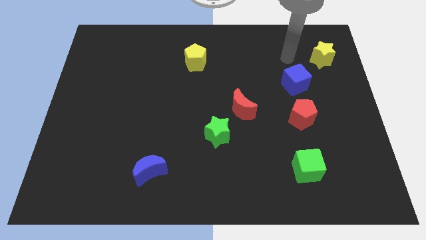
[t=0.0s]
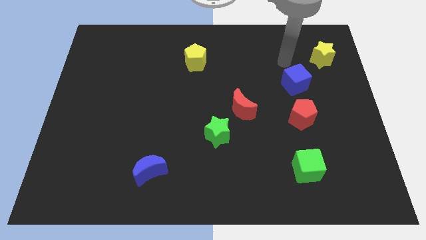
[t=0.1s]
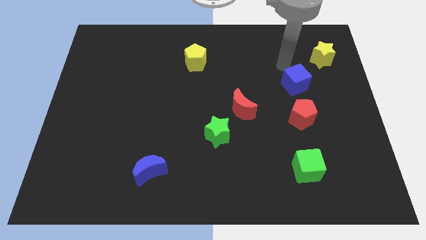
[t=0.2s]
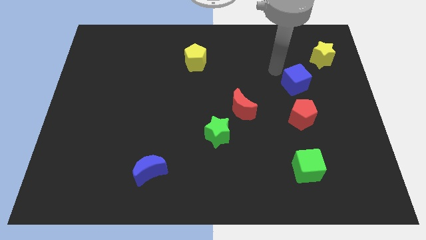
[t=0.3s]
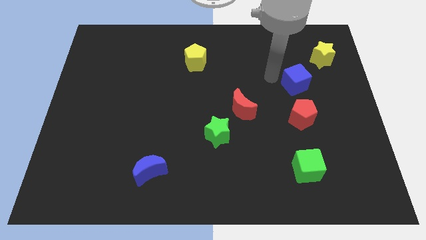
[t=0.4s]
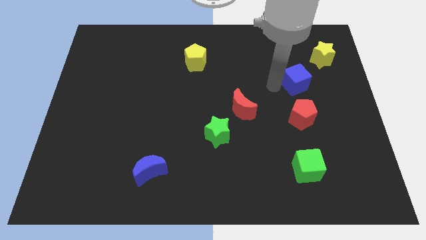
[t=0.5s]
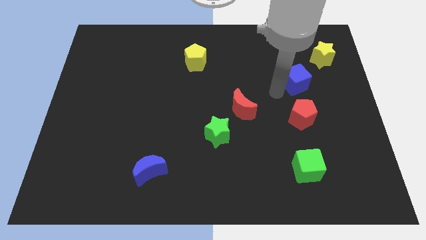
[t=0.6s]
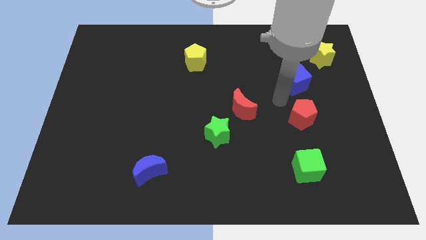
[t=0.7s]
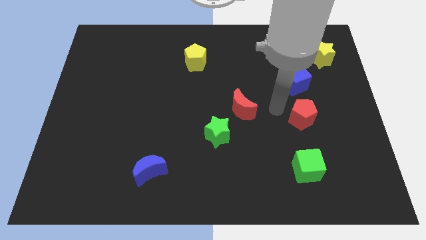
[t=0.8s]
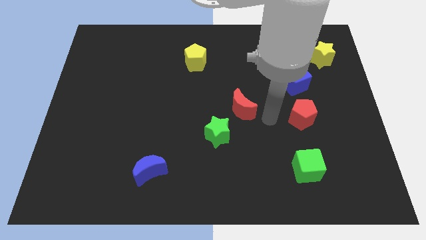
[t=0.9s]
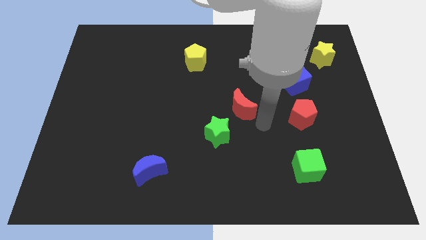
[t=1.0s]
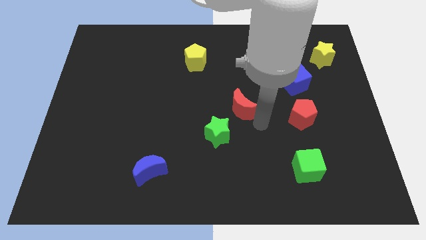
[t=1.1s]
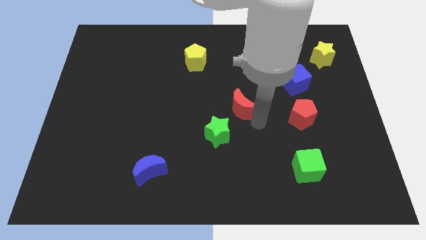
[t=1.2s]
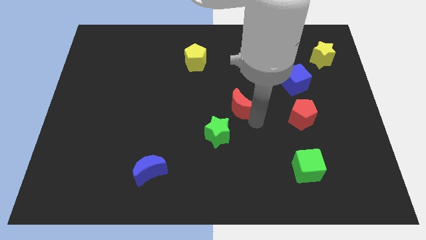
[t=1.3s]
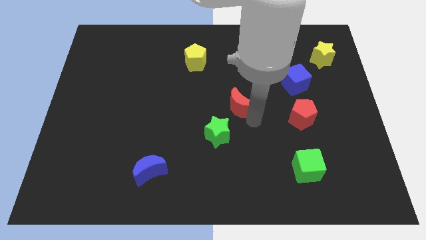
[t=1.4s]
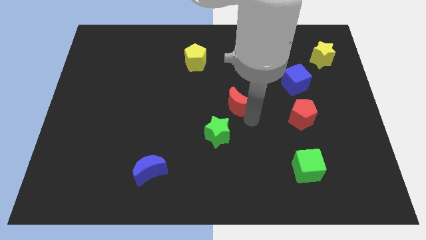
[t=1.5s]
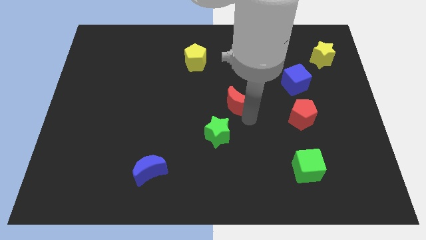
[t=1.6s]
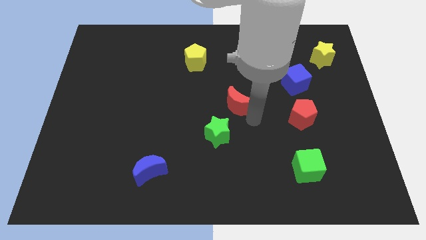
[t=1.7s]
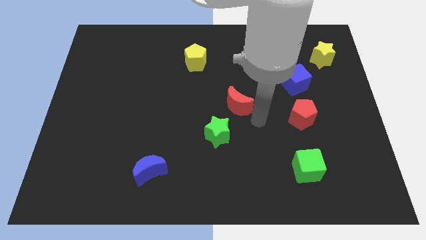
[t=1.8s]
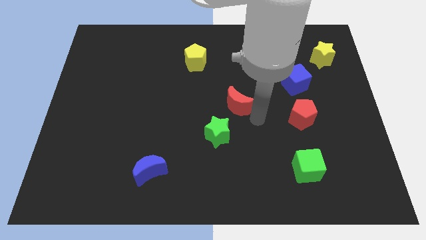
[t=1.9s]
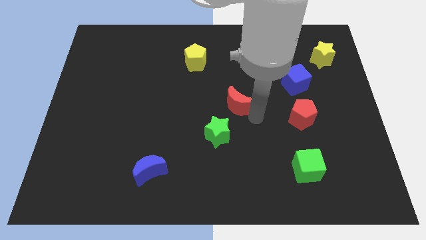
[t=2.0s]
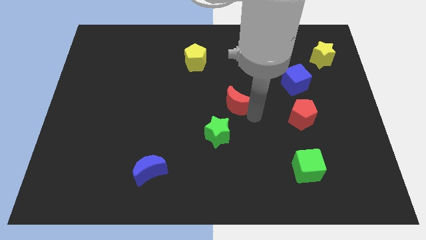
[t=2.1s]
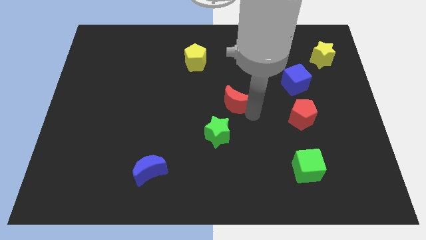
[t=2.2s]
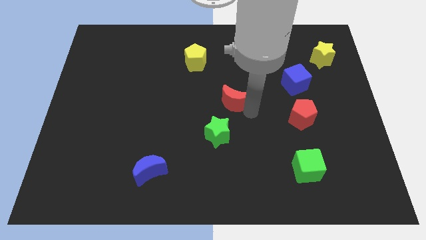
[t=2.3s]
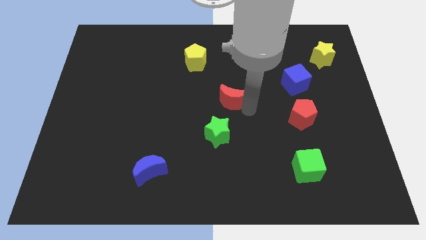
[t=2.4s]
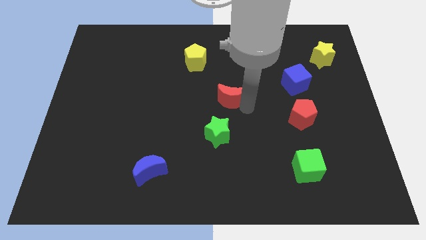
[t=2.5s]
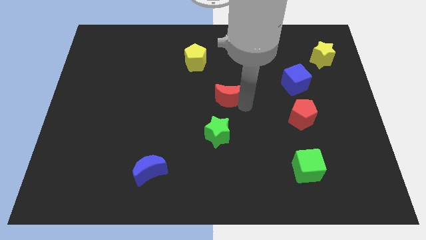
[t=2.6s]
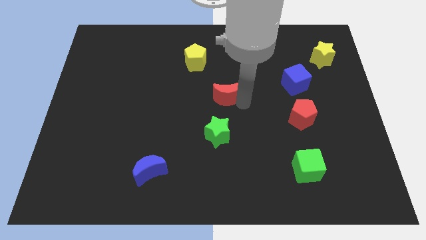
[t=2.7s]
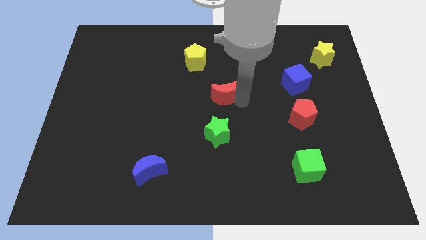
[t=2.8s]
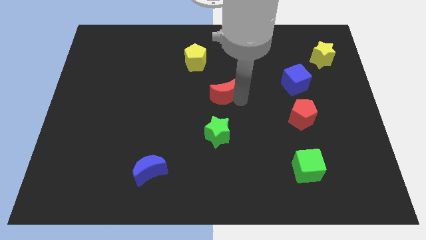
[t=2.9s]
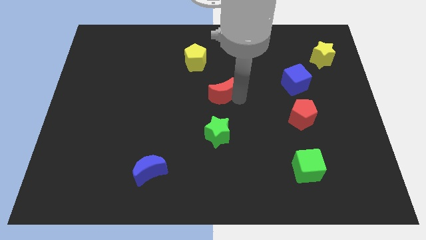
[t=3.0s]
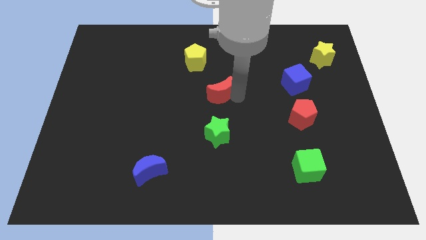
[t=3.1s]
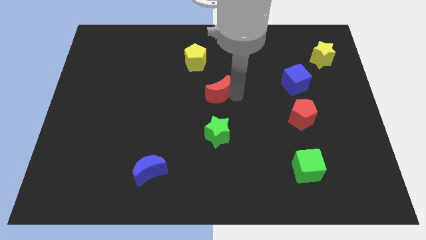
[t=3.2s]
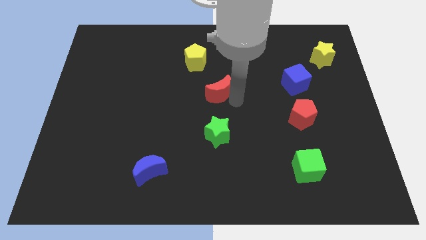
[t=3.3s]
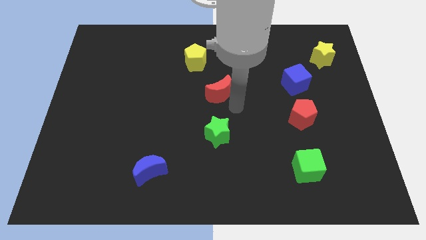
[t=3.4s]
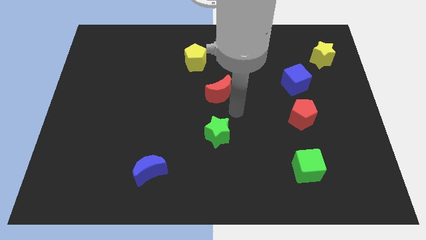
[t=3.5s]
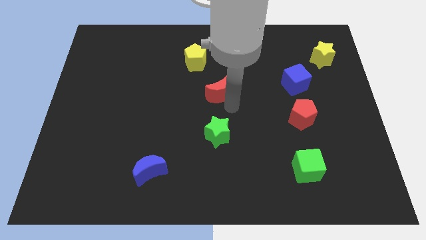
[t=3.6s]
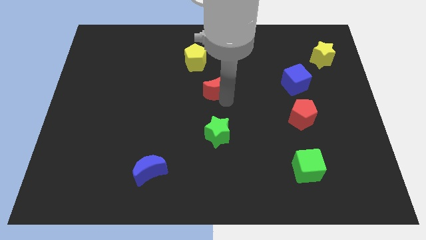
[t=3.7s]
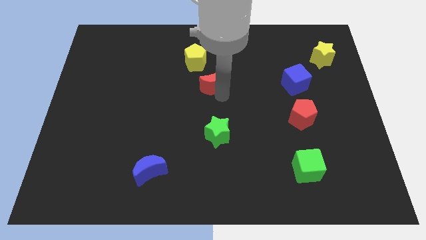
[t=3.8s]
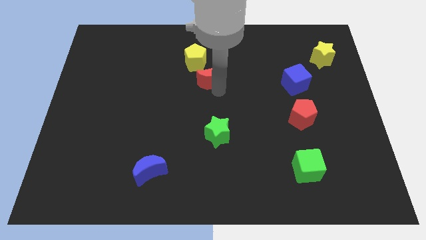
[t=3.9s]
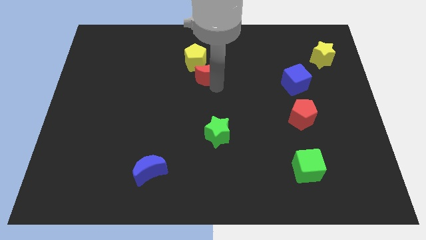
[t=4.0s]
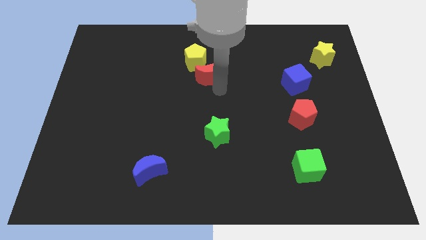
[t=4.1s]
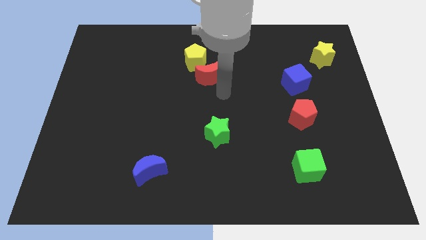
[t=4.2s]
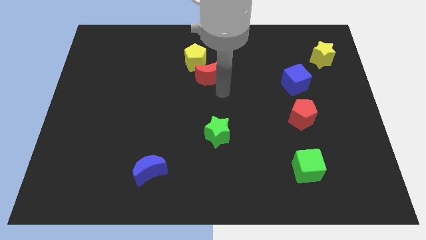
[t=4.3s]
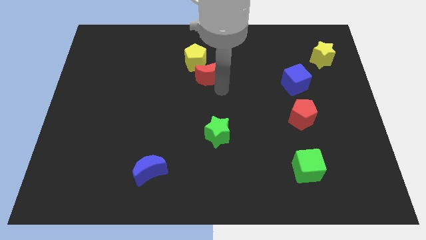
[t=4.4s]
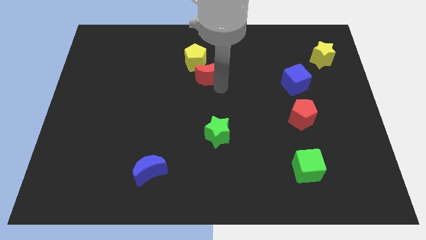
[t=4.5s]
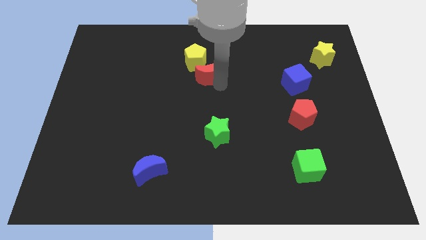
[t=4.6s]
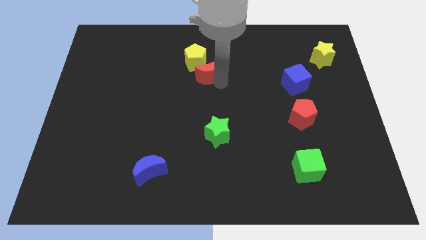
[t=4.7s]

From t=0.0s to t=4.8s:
slide the red moon to the yellow pentagon

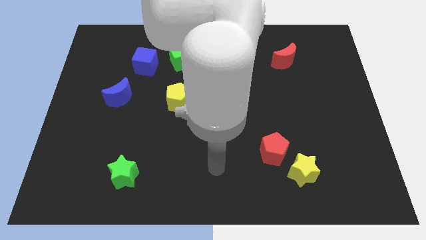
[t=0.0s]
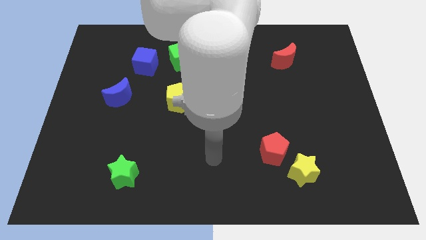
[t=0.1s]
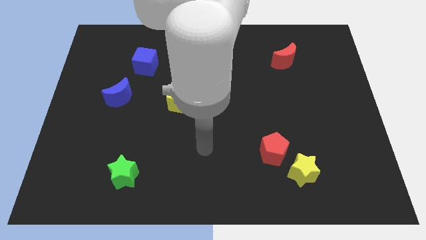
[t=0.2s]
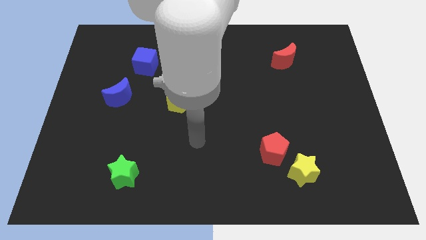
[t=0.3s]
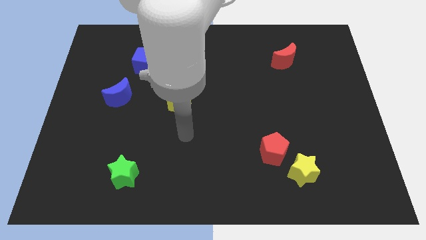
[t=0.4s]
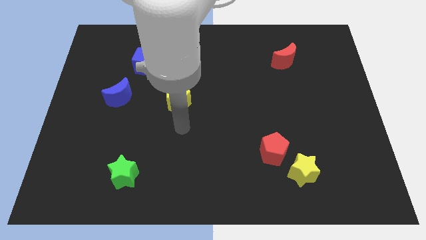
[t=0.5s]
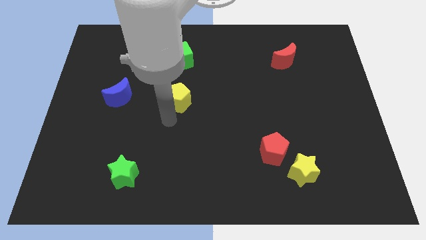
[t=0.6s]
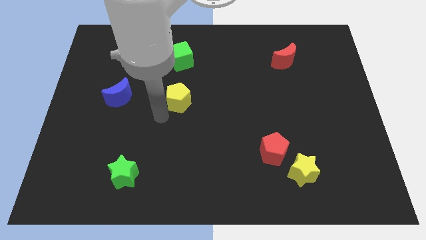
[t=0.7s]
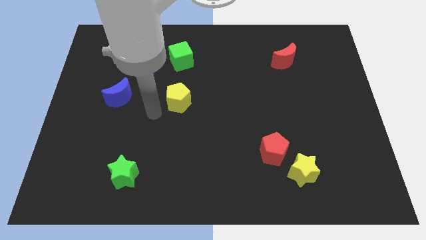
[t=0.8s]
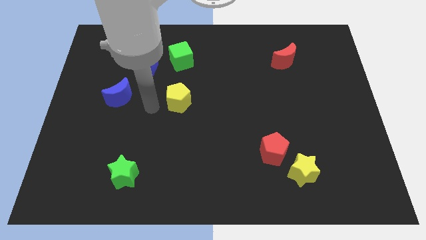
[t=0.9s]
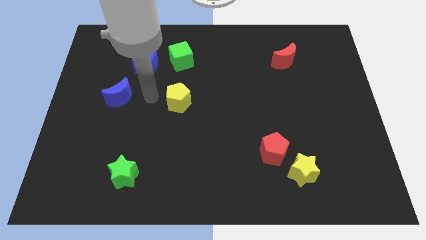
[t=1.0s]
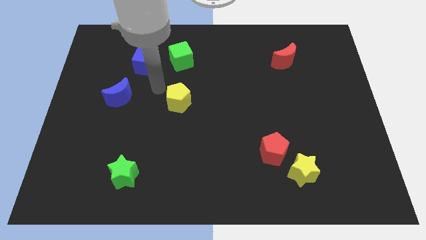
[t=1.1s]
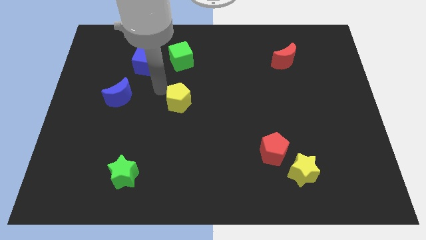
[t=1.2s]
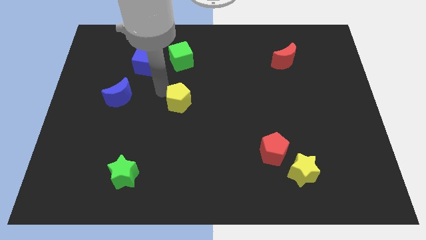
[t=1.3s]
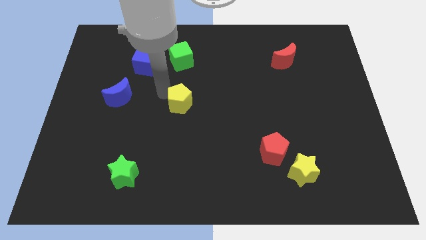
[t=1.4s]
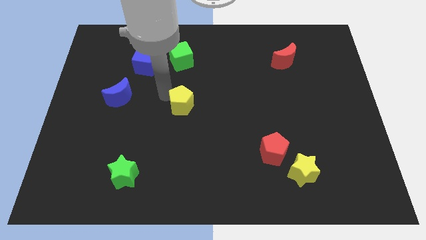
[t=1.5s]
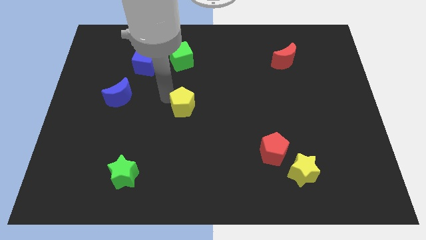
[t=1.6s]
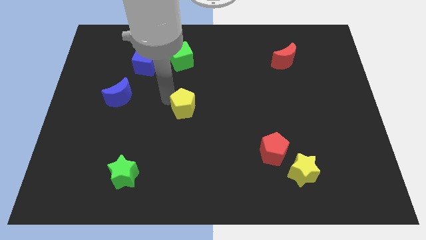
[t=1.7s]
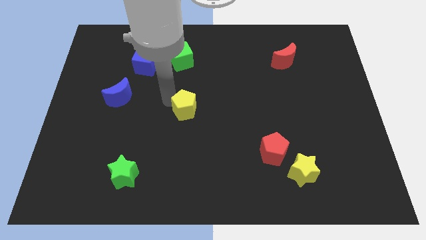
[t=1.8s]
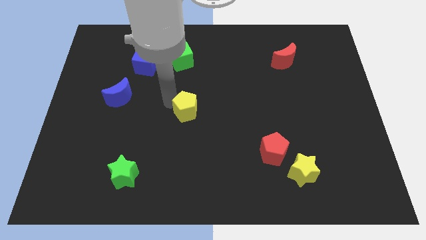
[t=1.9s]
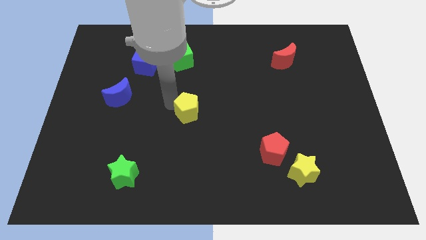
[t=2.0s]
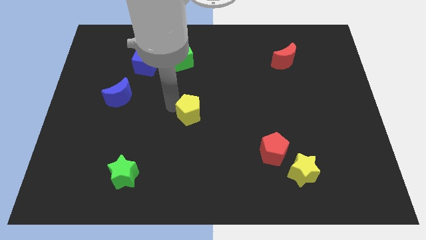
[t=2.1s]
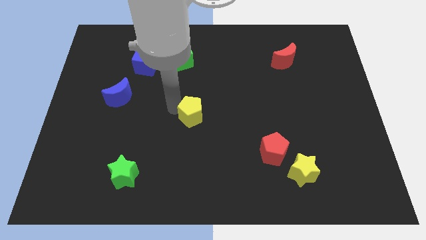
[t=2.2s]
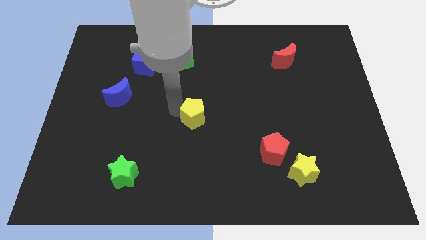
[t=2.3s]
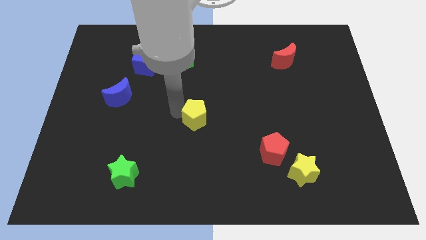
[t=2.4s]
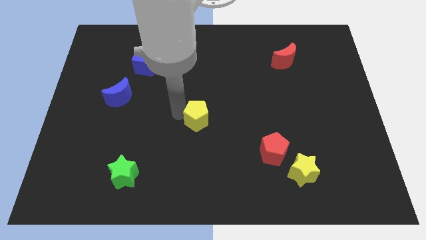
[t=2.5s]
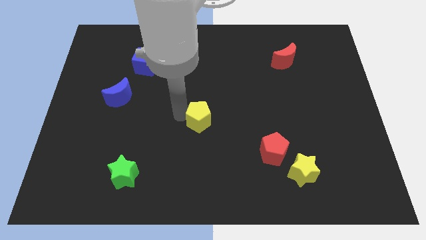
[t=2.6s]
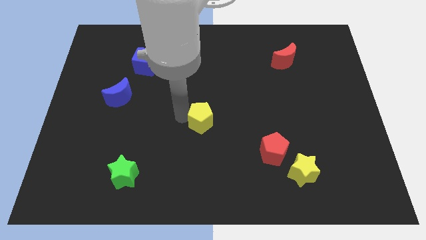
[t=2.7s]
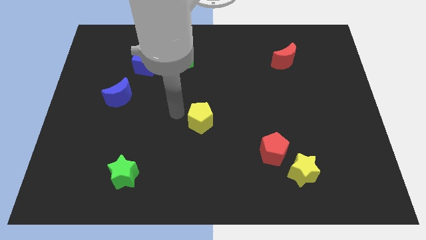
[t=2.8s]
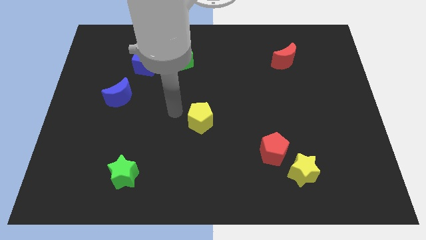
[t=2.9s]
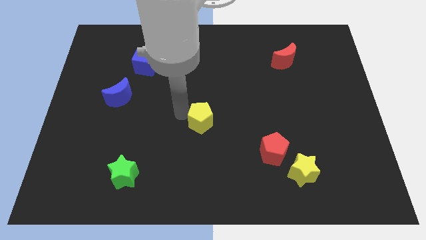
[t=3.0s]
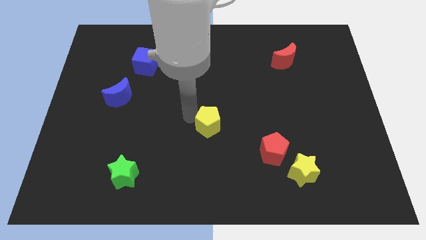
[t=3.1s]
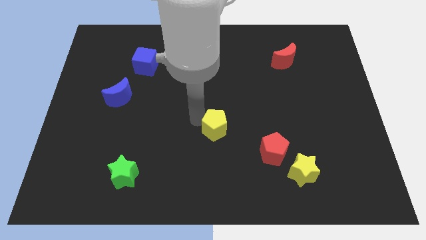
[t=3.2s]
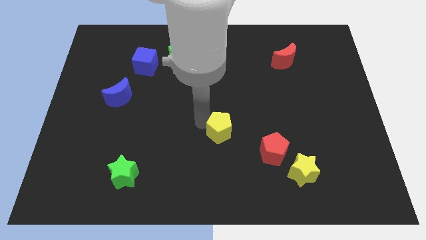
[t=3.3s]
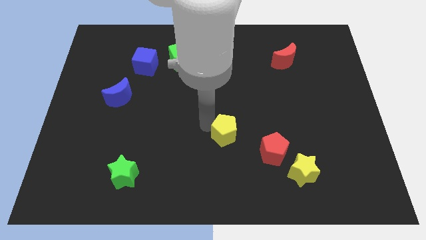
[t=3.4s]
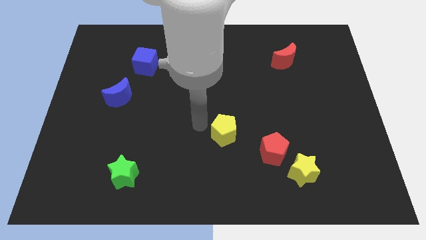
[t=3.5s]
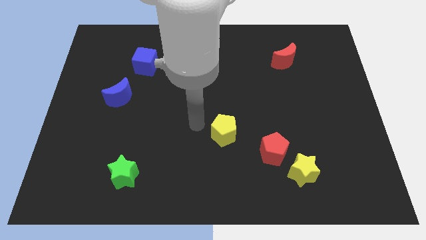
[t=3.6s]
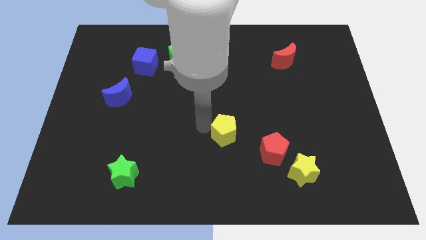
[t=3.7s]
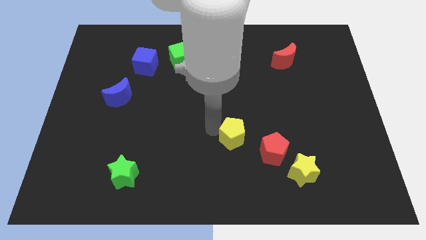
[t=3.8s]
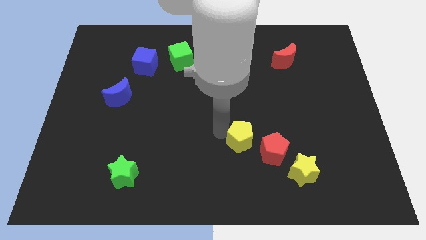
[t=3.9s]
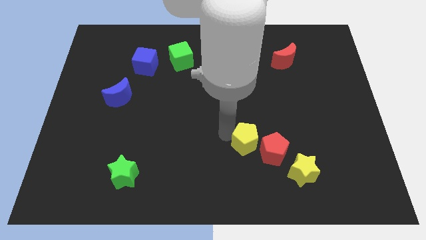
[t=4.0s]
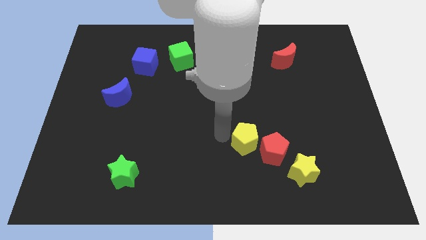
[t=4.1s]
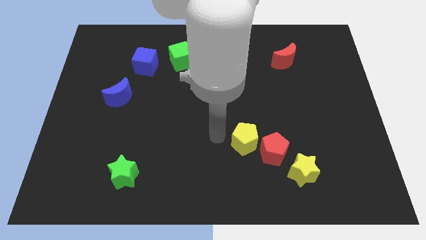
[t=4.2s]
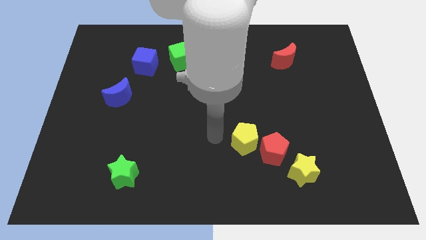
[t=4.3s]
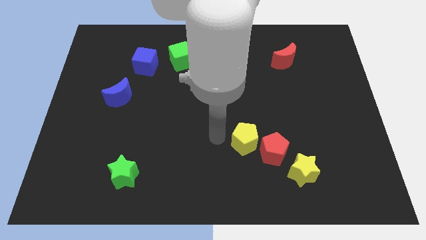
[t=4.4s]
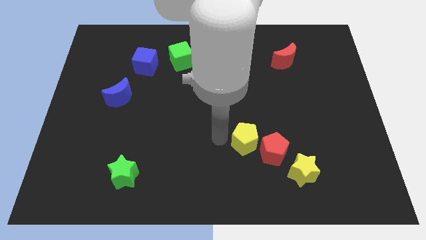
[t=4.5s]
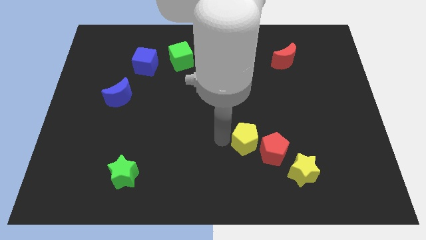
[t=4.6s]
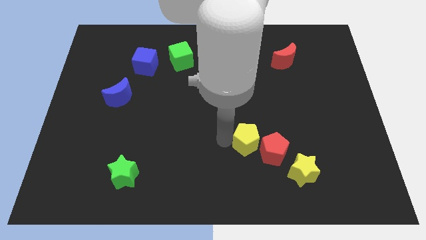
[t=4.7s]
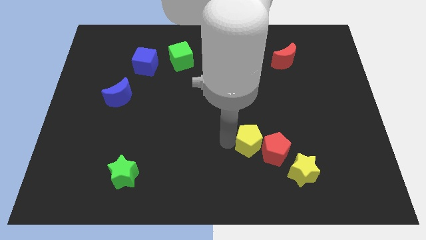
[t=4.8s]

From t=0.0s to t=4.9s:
push the yellow pentagon next to the red pentagon
